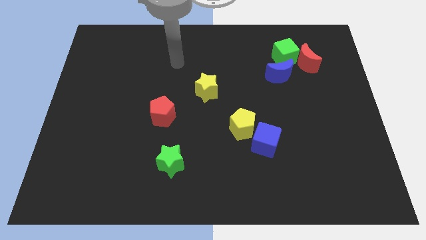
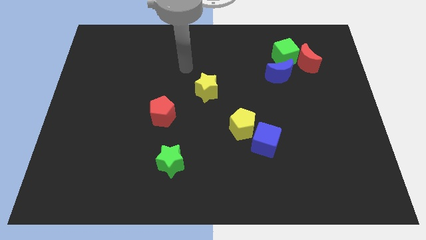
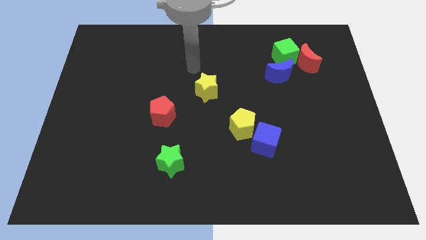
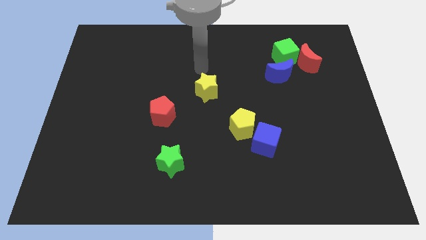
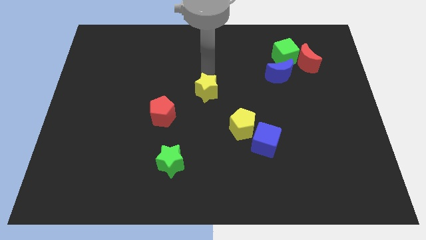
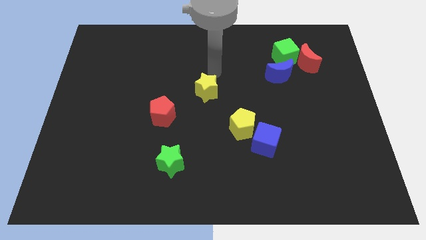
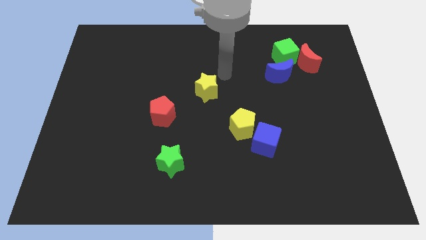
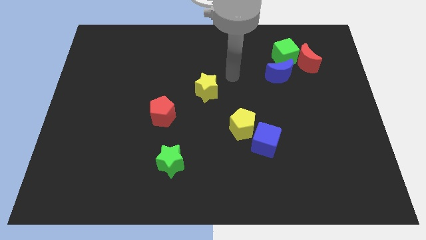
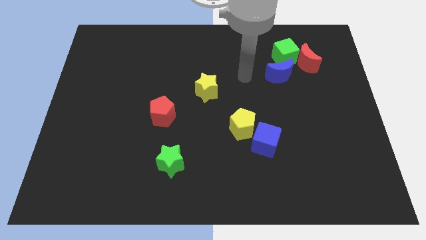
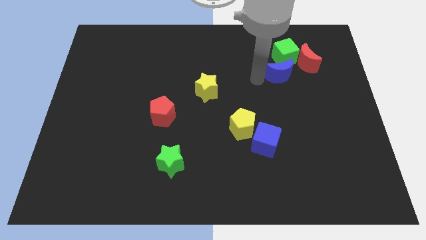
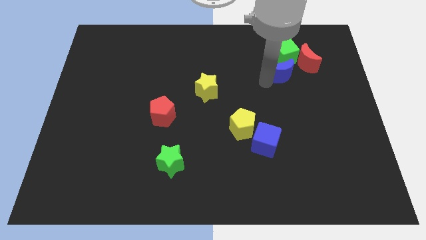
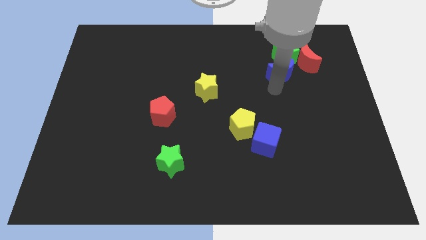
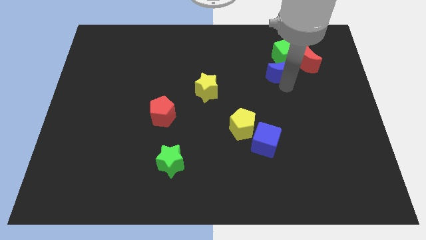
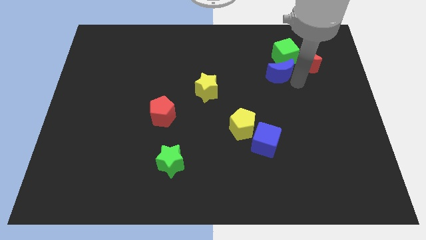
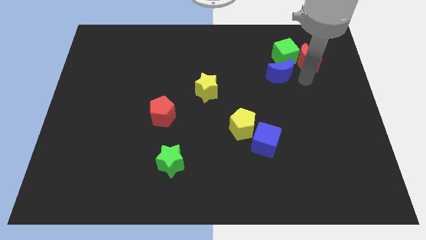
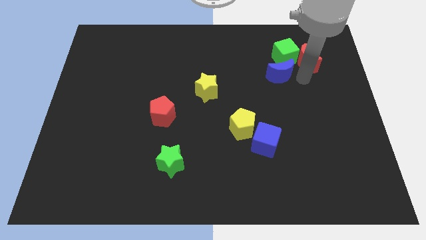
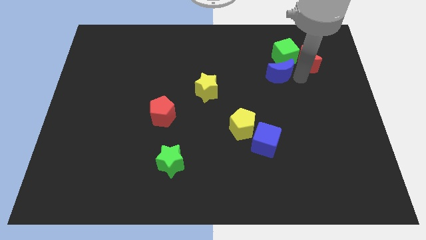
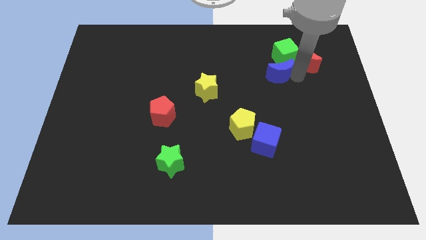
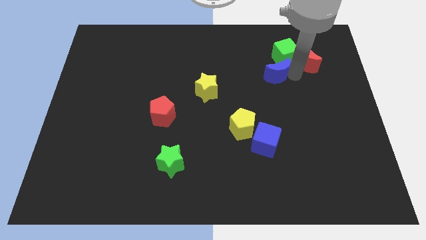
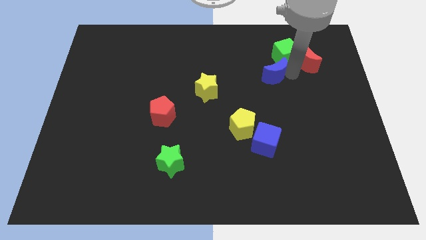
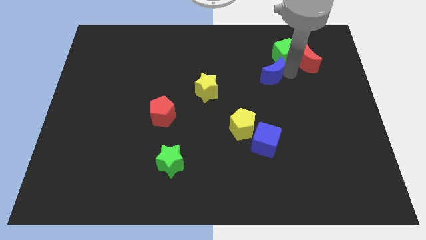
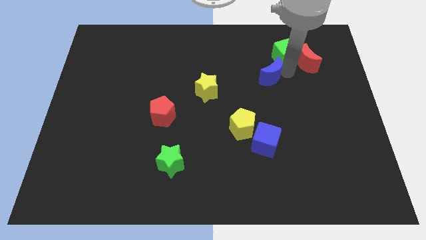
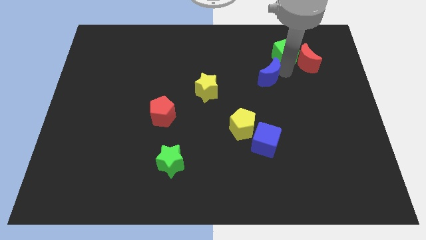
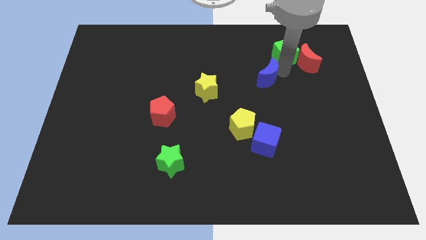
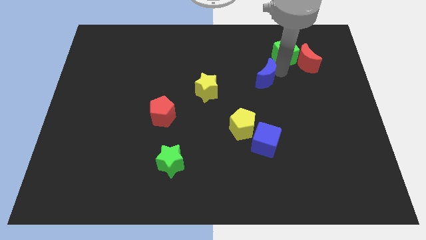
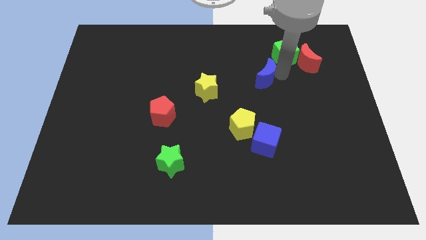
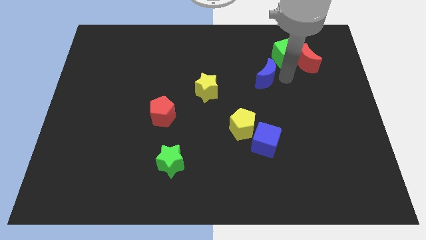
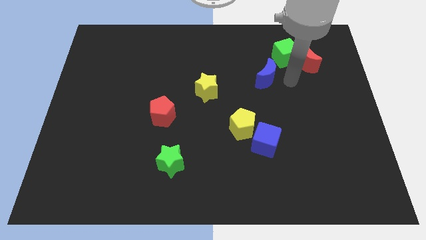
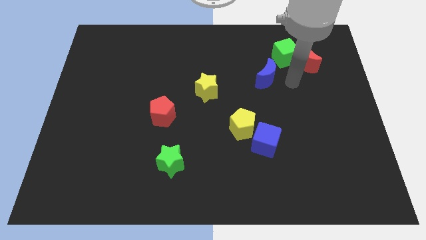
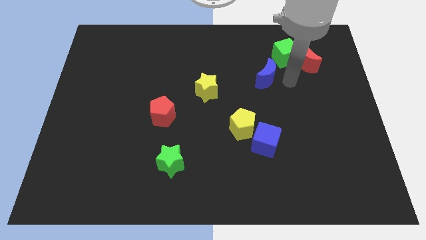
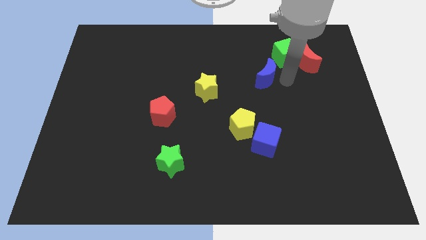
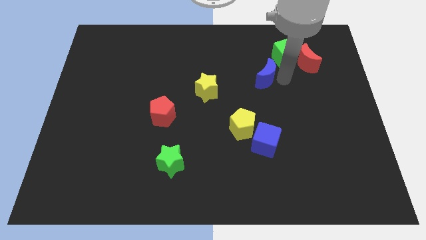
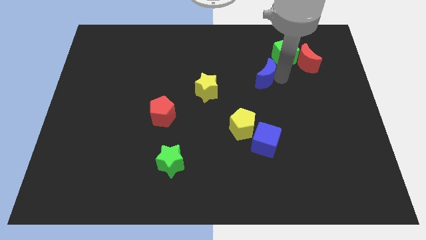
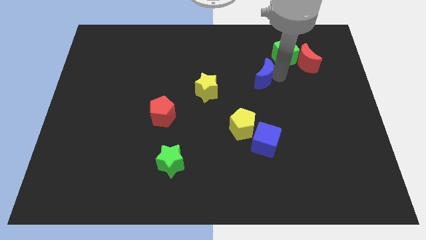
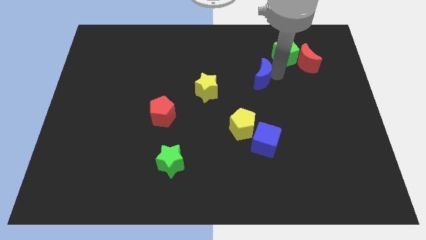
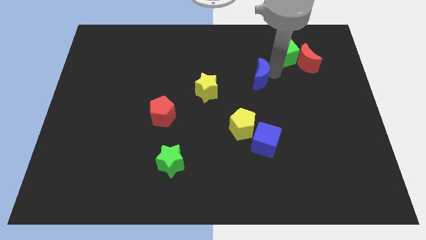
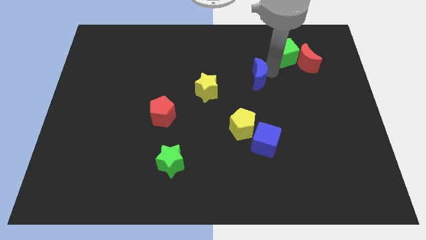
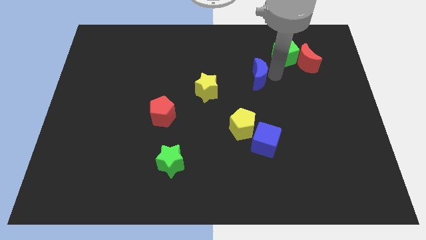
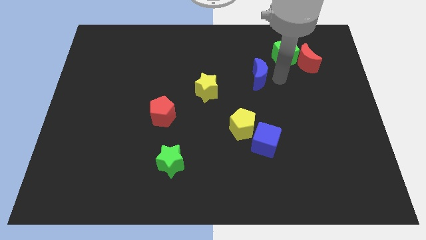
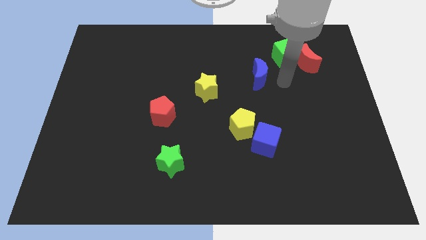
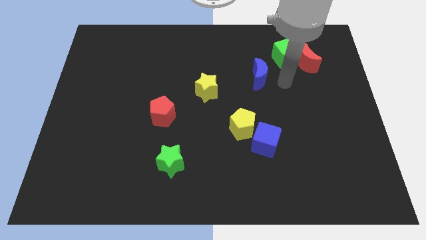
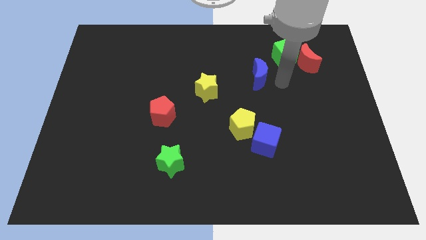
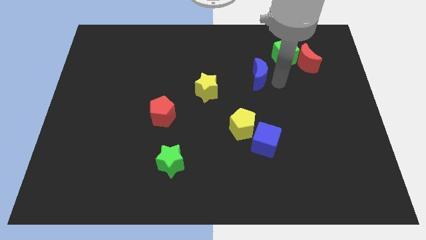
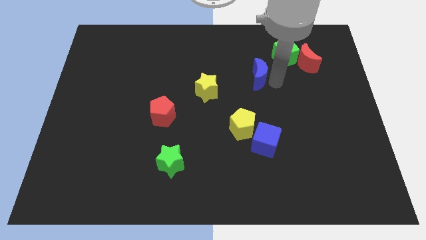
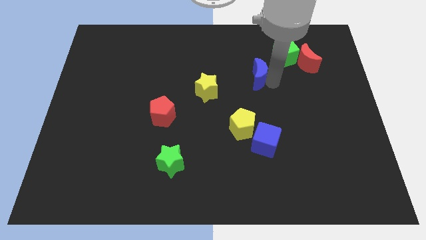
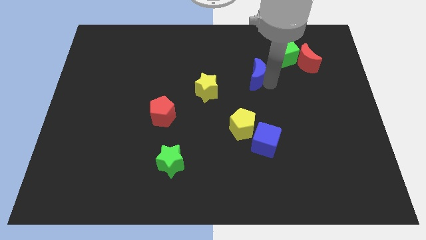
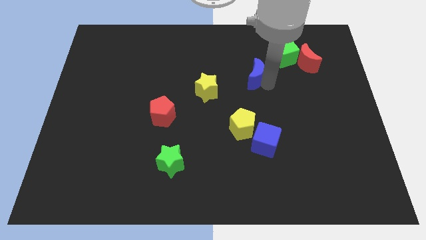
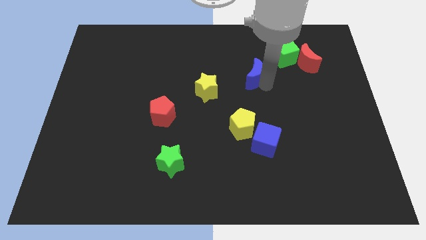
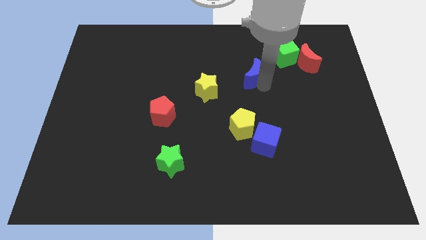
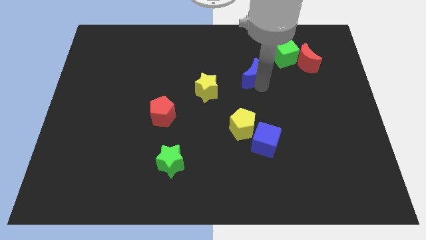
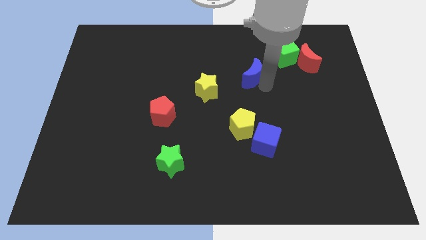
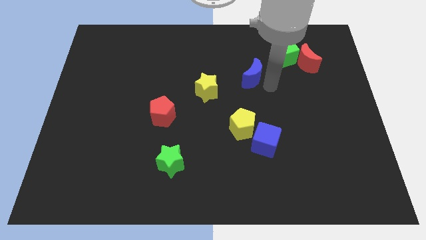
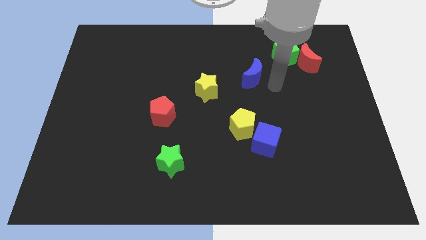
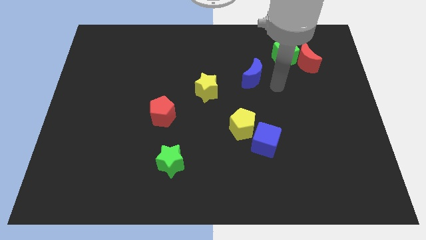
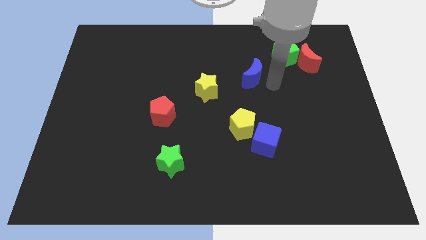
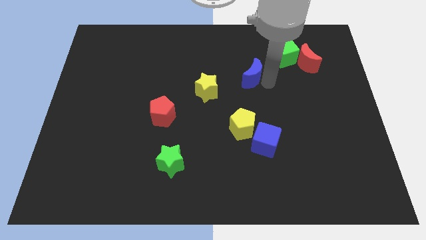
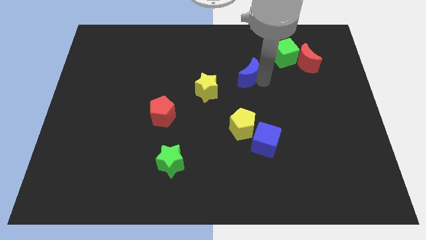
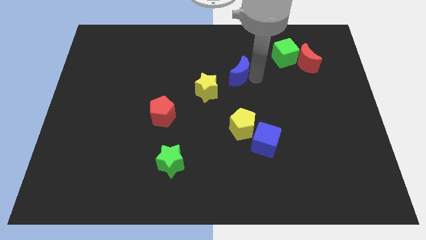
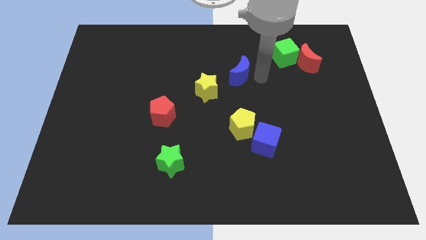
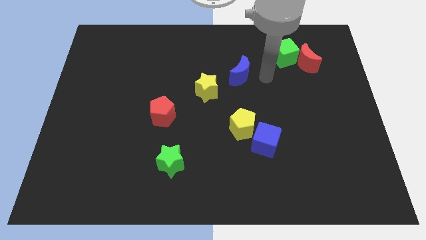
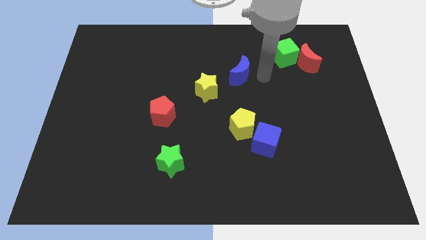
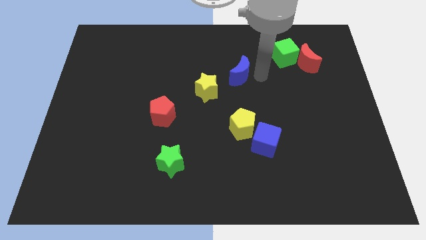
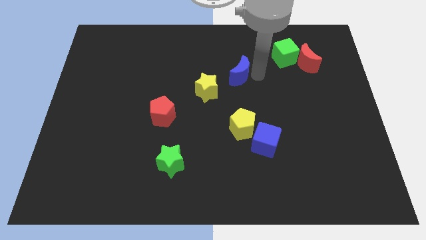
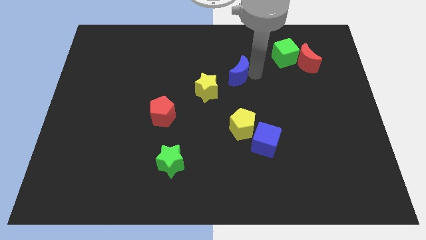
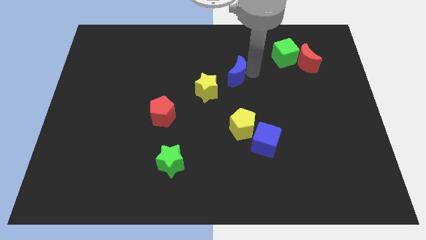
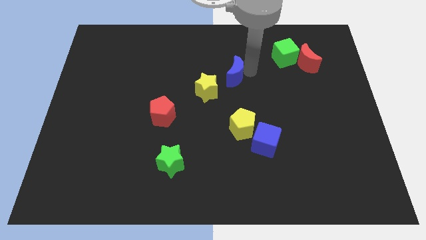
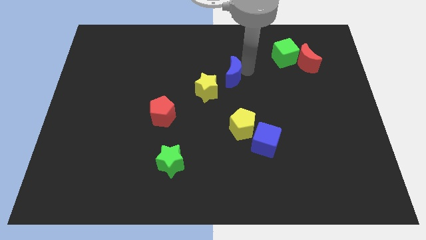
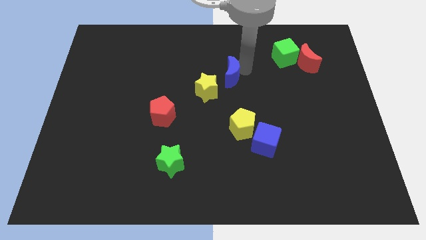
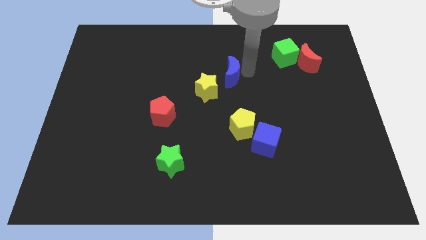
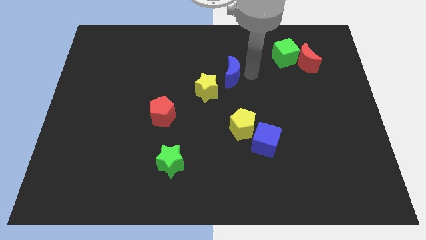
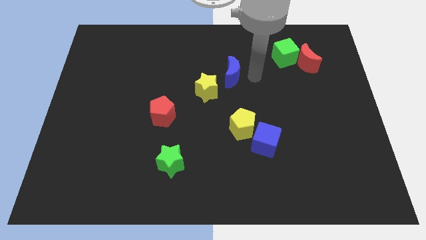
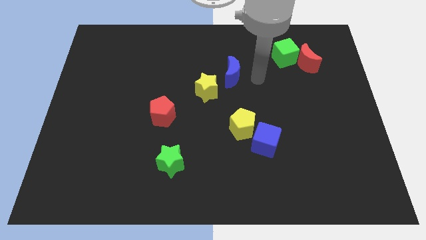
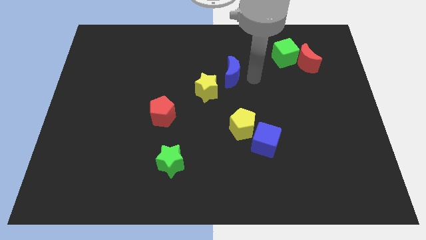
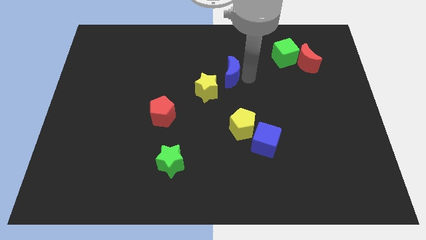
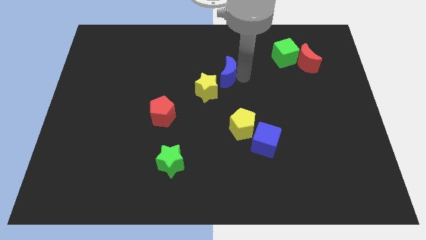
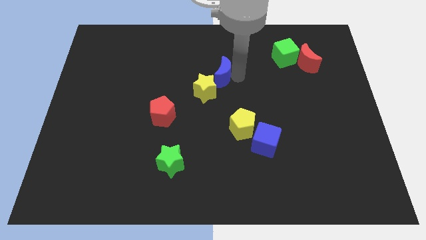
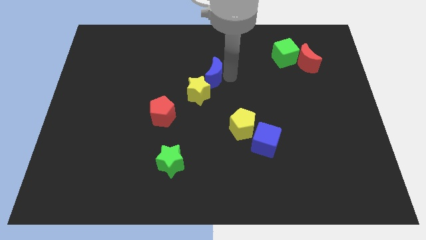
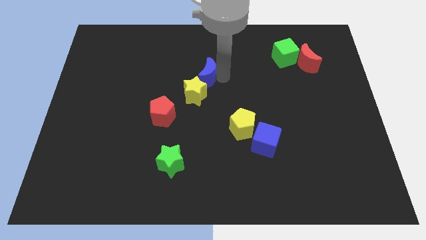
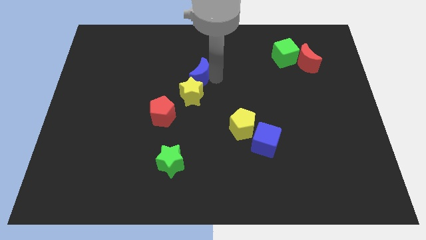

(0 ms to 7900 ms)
move the blue moon left
